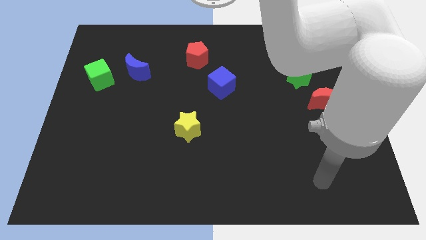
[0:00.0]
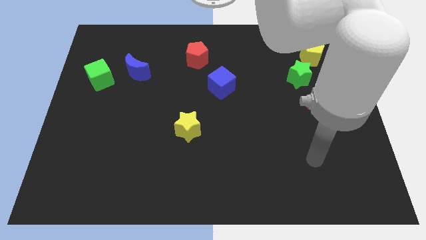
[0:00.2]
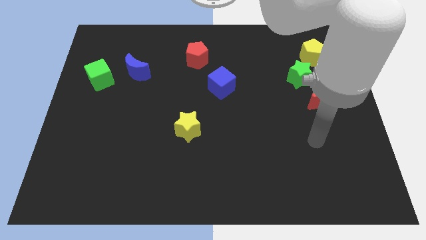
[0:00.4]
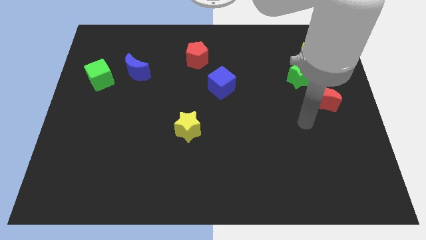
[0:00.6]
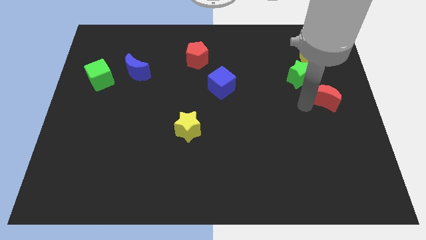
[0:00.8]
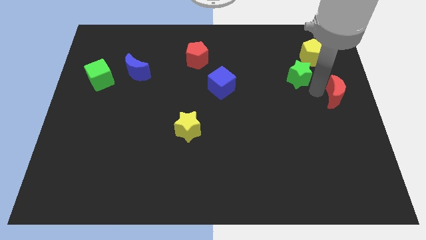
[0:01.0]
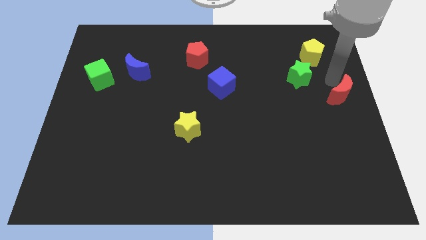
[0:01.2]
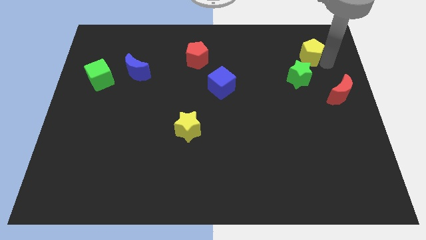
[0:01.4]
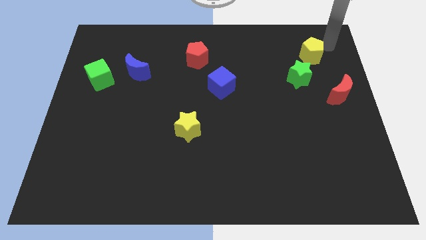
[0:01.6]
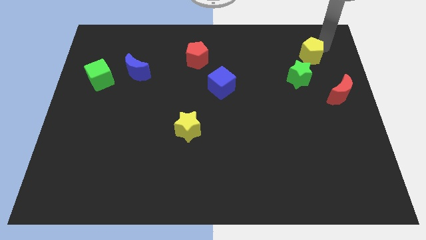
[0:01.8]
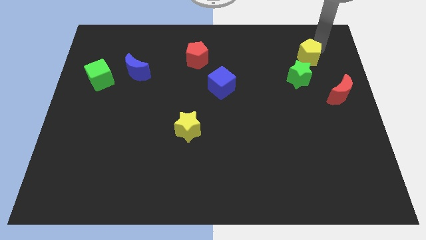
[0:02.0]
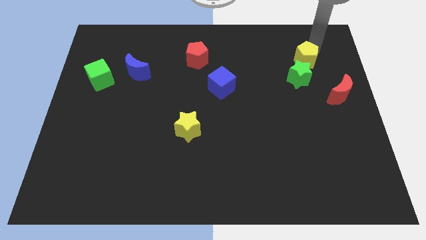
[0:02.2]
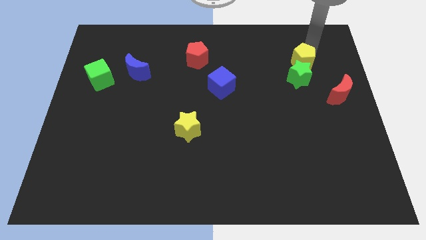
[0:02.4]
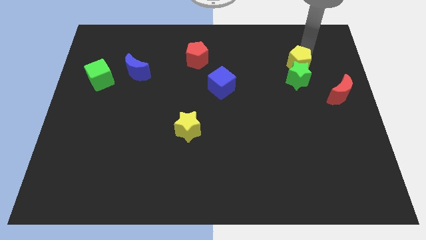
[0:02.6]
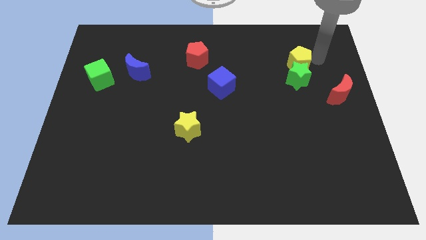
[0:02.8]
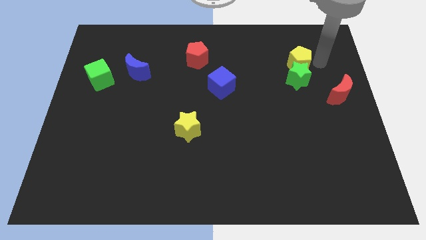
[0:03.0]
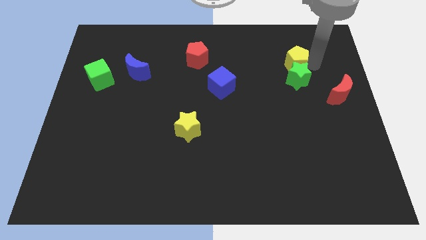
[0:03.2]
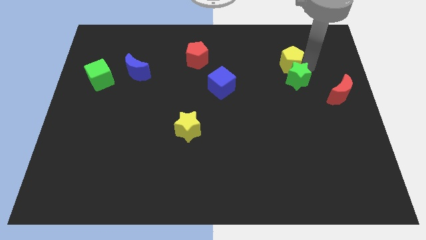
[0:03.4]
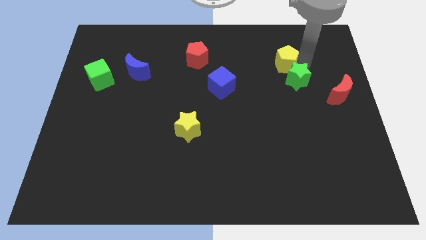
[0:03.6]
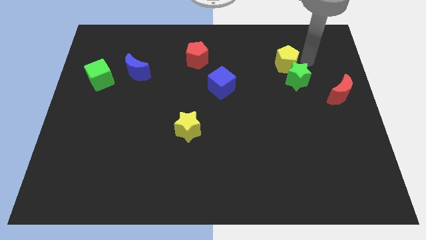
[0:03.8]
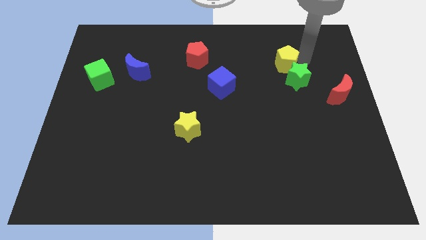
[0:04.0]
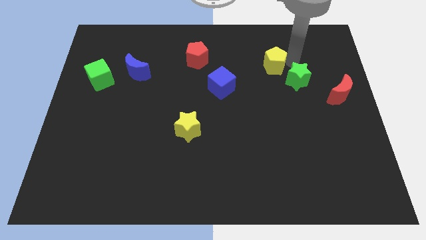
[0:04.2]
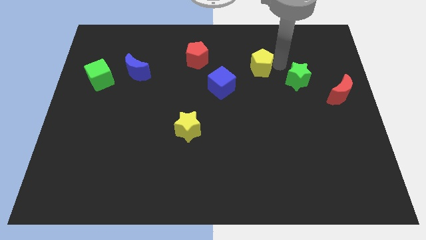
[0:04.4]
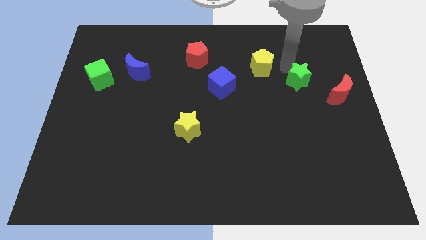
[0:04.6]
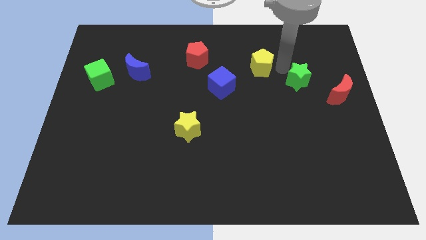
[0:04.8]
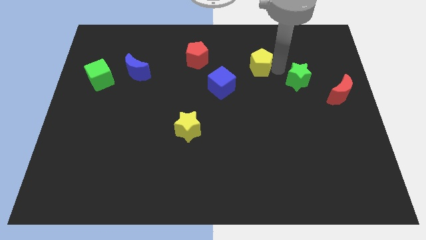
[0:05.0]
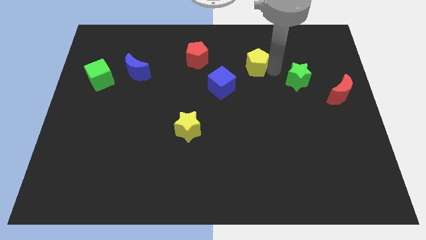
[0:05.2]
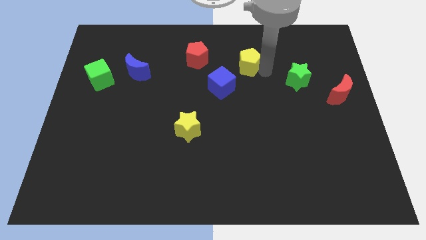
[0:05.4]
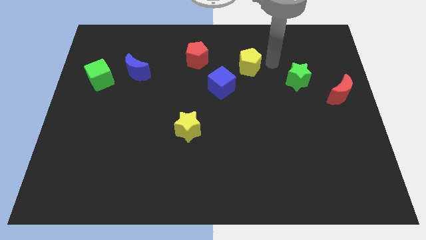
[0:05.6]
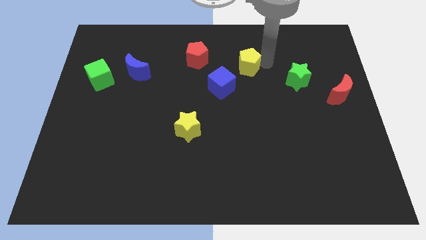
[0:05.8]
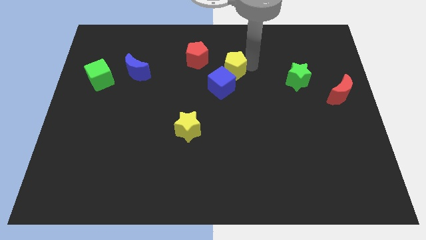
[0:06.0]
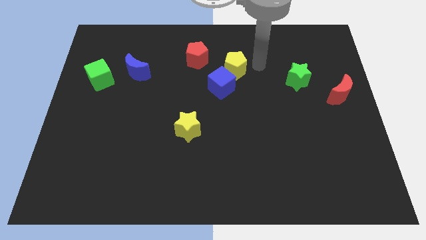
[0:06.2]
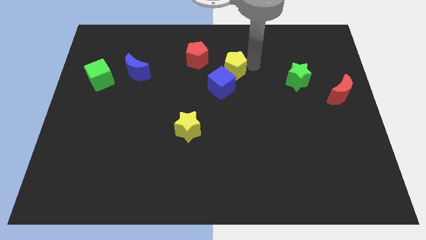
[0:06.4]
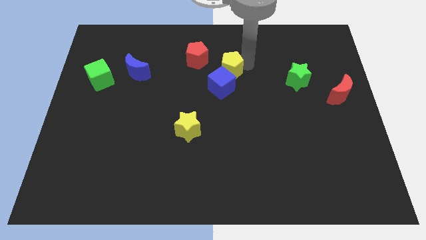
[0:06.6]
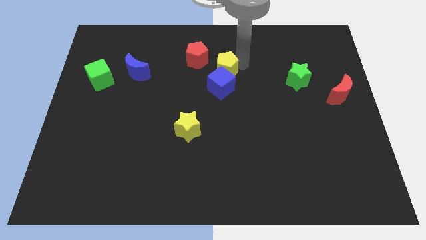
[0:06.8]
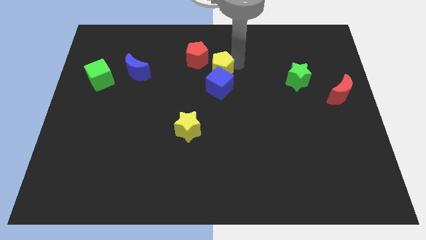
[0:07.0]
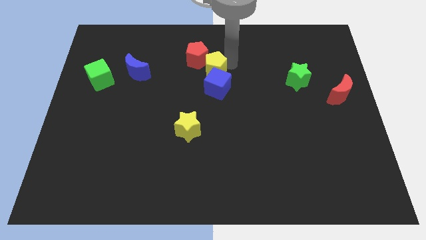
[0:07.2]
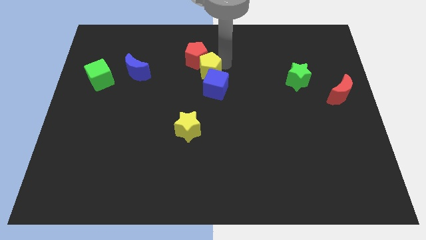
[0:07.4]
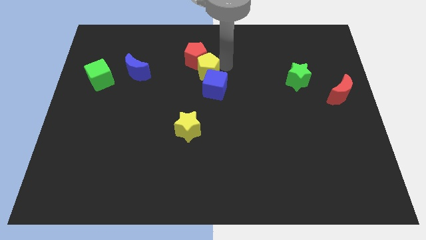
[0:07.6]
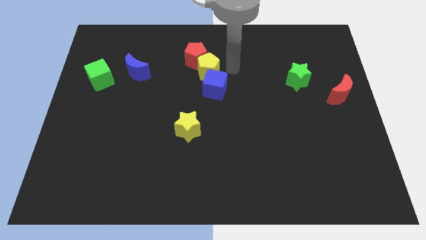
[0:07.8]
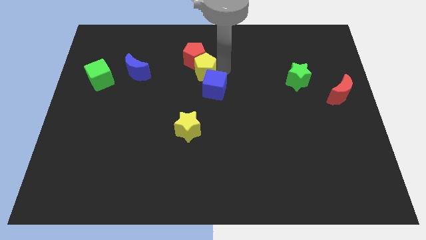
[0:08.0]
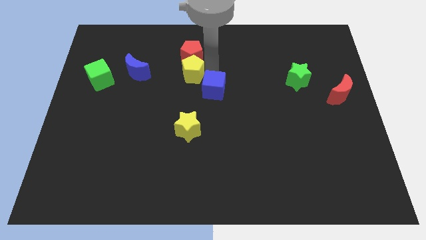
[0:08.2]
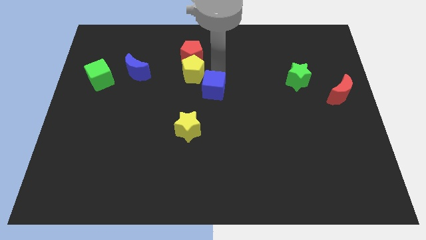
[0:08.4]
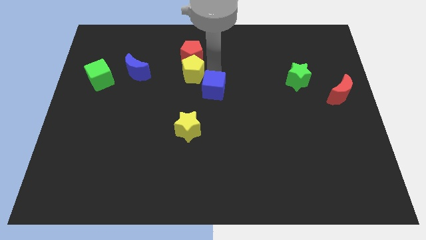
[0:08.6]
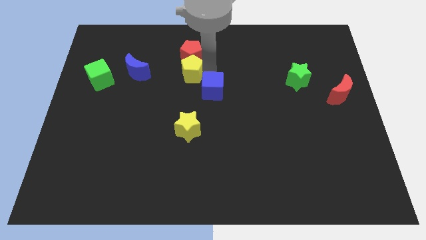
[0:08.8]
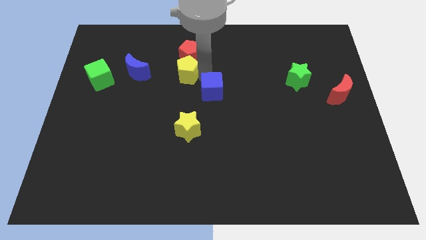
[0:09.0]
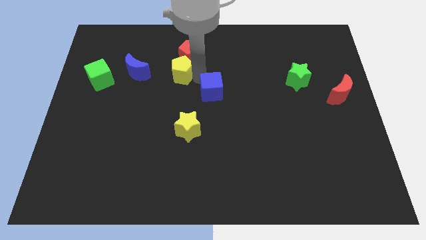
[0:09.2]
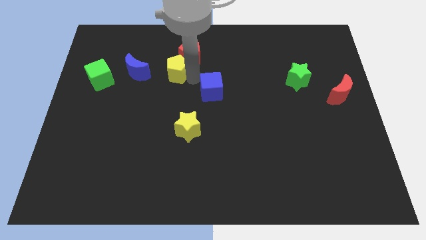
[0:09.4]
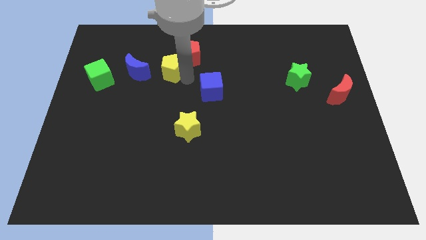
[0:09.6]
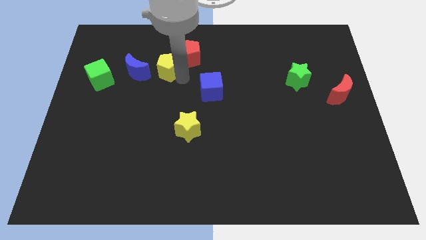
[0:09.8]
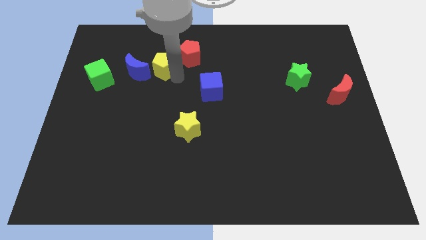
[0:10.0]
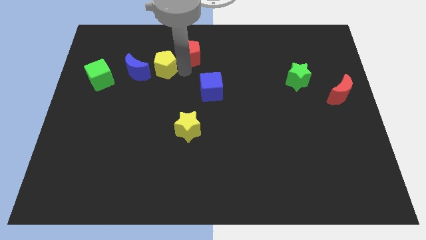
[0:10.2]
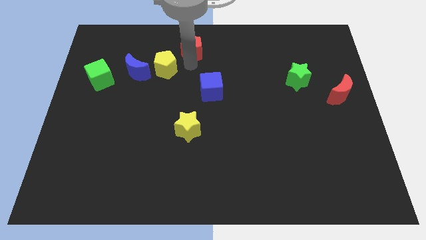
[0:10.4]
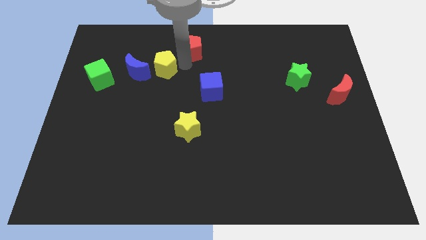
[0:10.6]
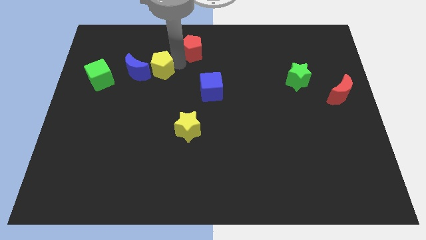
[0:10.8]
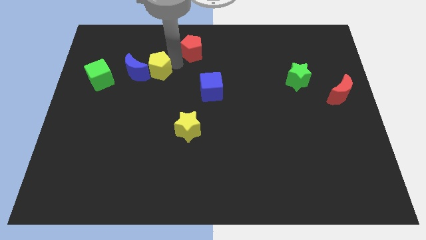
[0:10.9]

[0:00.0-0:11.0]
move the yellow pentagon close to the blue moon

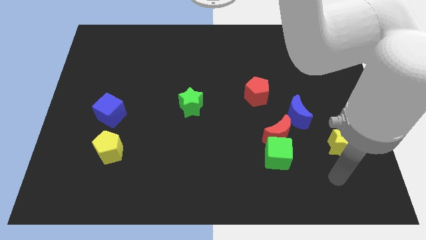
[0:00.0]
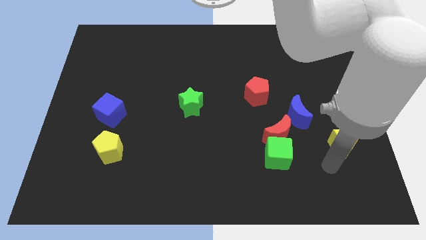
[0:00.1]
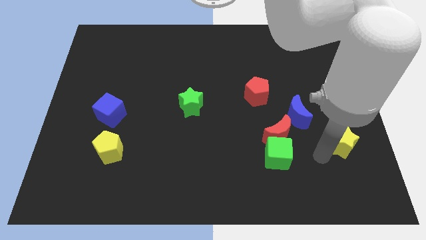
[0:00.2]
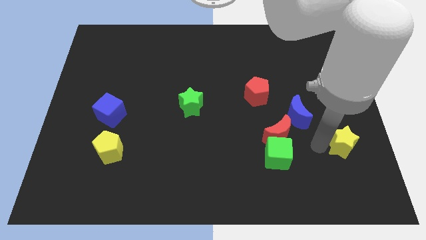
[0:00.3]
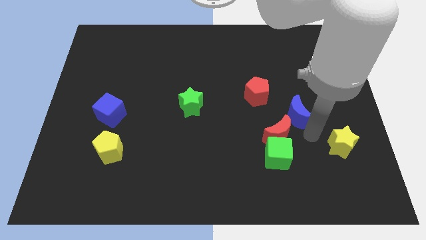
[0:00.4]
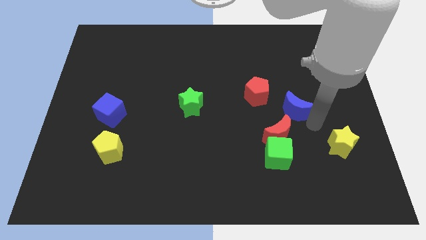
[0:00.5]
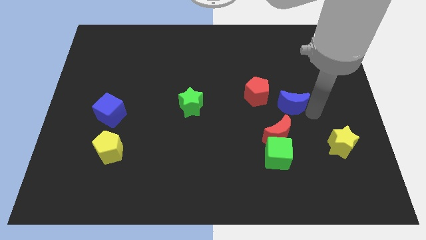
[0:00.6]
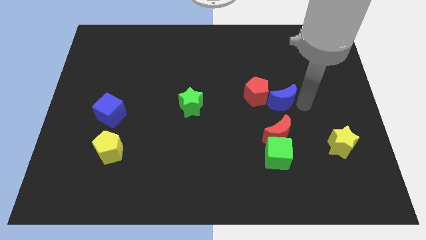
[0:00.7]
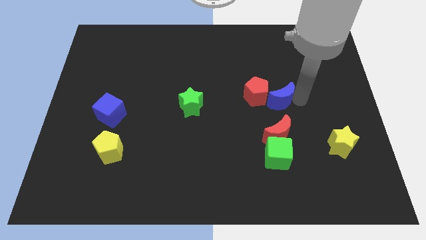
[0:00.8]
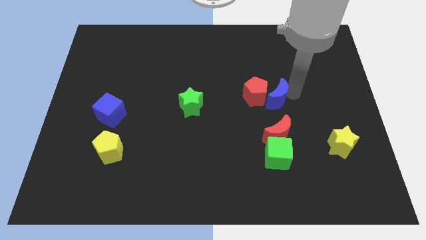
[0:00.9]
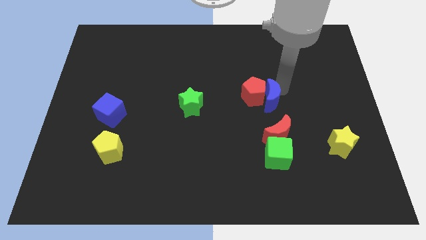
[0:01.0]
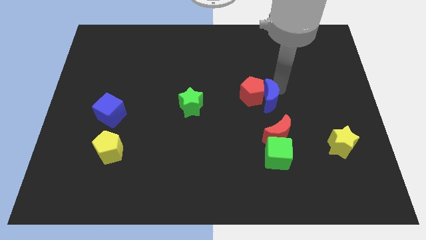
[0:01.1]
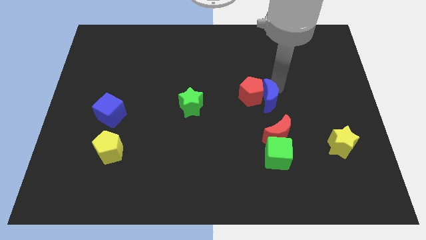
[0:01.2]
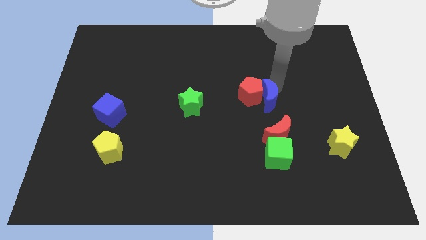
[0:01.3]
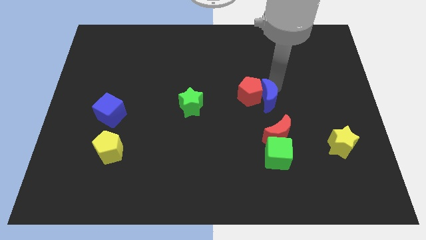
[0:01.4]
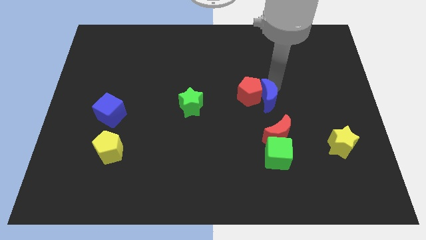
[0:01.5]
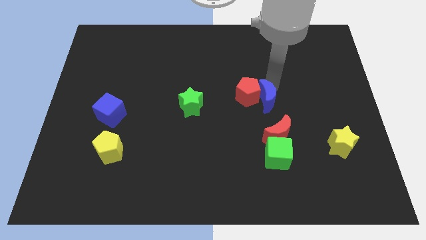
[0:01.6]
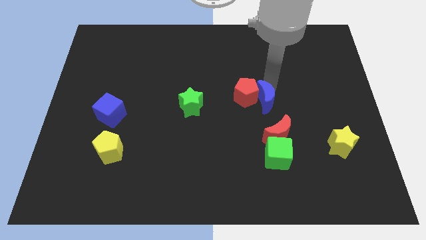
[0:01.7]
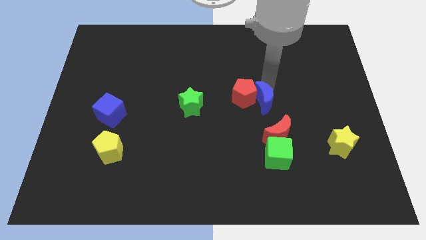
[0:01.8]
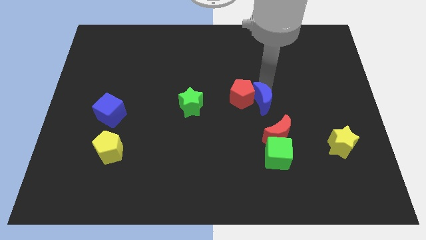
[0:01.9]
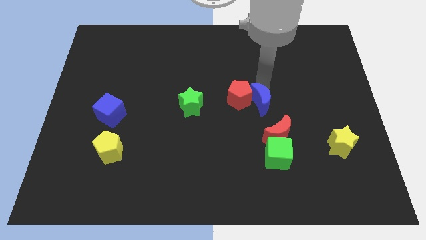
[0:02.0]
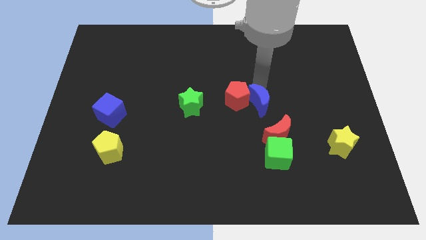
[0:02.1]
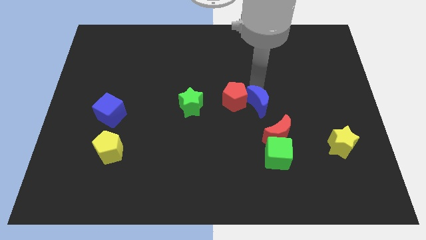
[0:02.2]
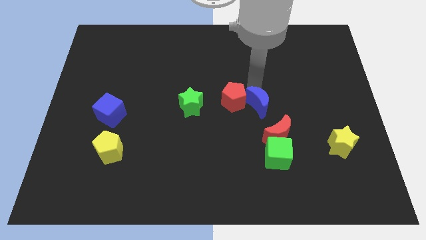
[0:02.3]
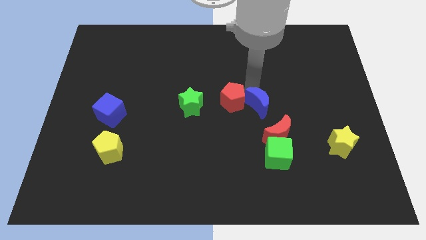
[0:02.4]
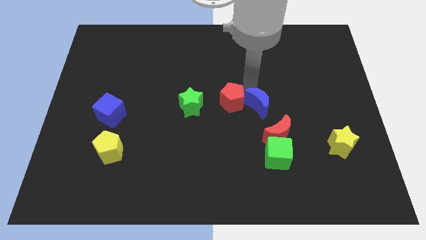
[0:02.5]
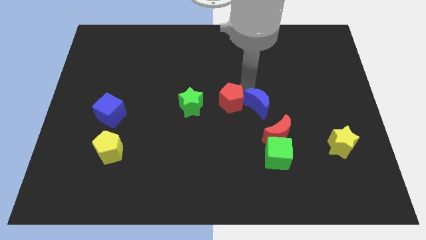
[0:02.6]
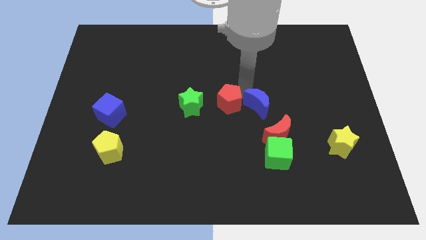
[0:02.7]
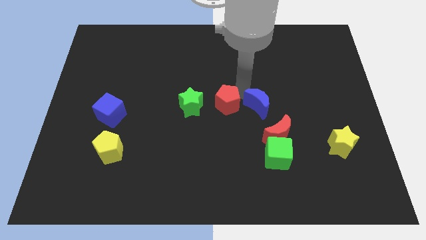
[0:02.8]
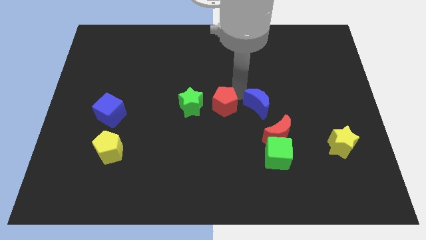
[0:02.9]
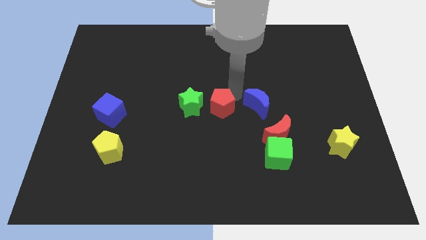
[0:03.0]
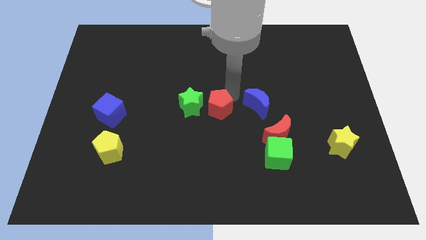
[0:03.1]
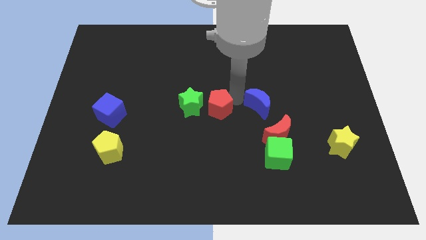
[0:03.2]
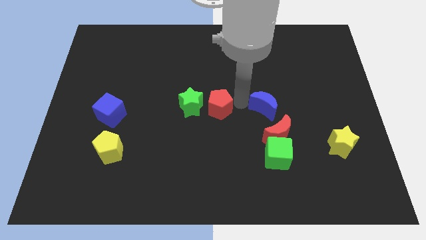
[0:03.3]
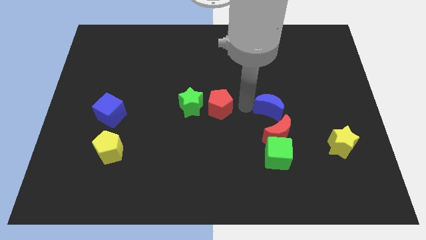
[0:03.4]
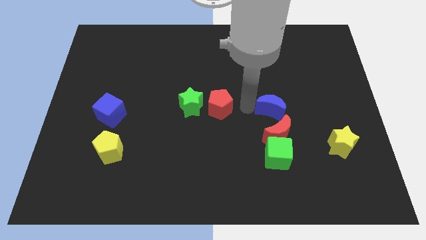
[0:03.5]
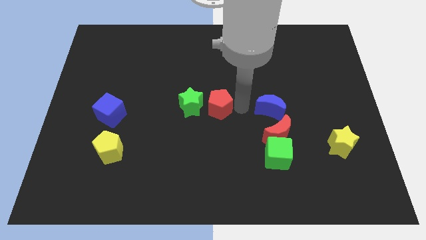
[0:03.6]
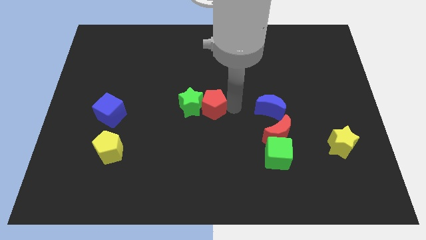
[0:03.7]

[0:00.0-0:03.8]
slide the red pentagon close to the green star
